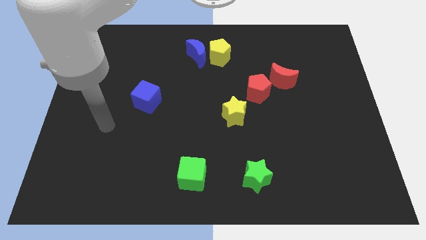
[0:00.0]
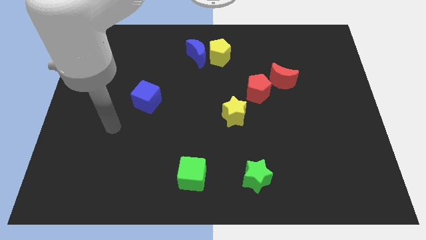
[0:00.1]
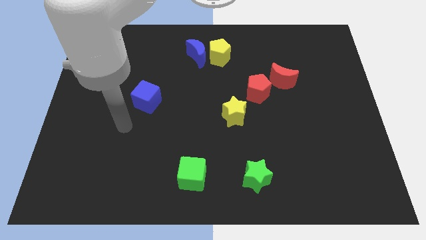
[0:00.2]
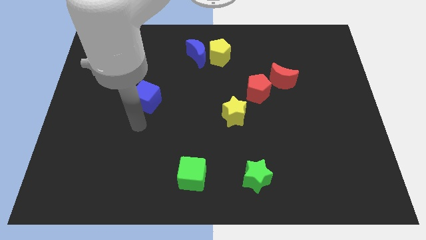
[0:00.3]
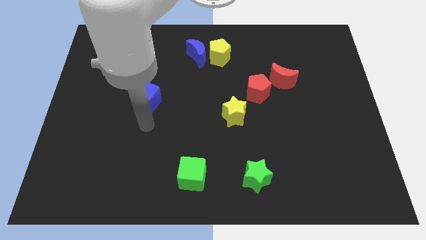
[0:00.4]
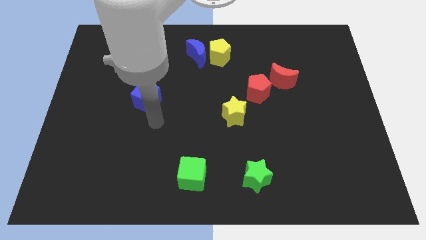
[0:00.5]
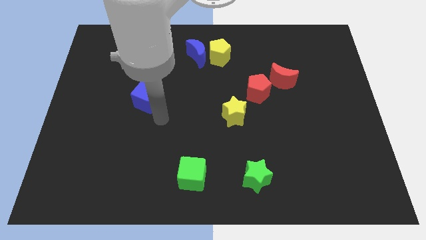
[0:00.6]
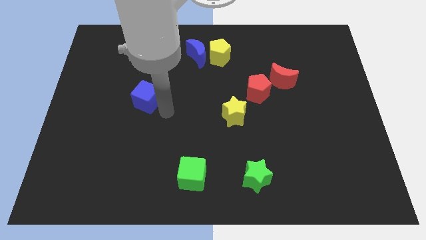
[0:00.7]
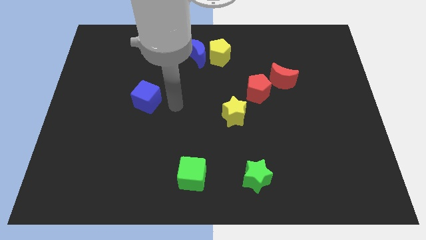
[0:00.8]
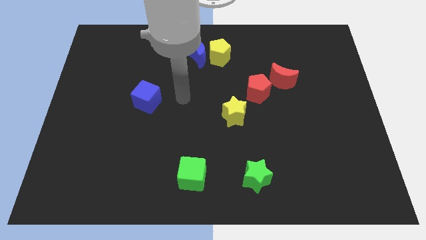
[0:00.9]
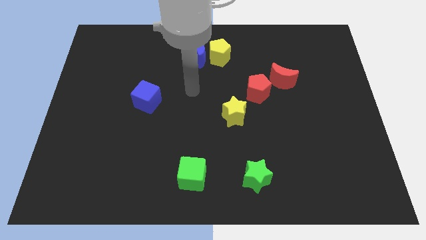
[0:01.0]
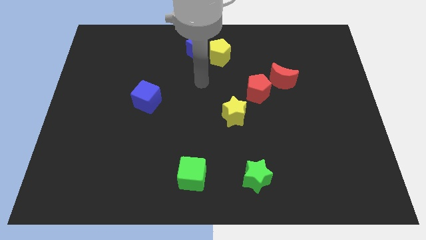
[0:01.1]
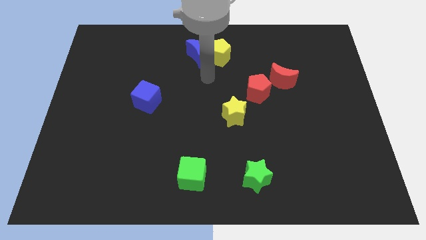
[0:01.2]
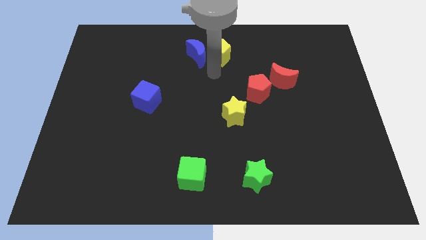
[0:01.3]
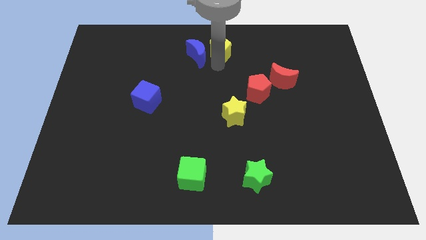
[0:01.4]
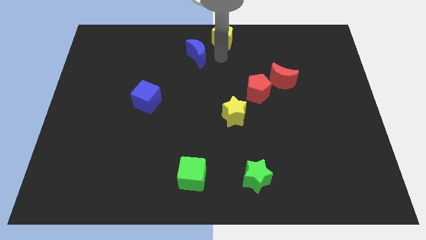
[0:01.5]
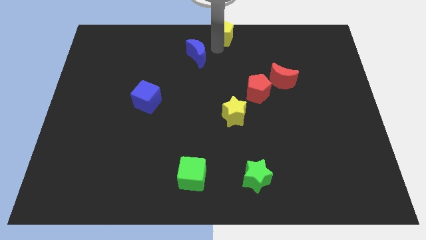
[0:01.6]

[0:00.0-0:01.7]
move the blue moon away from the yellow pentagon

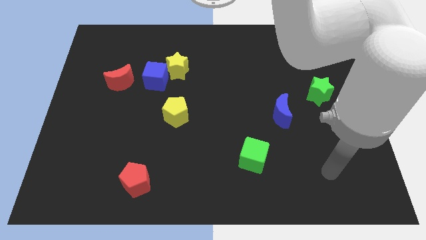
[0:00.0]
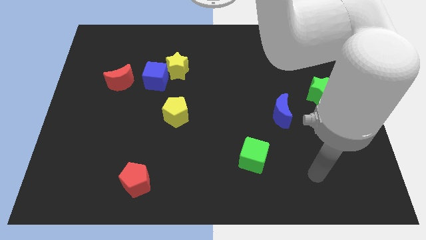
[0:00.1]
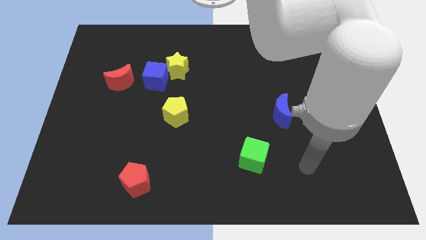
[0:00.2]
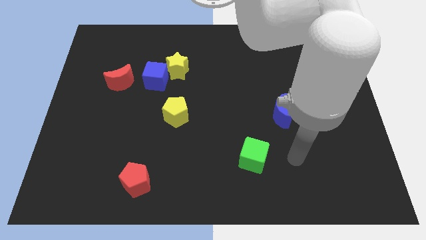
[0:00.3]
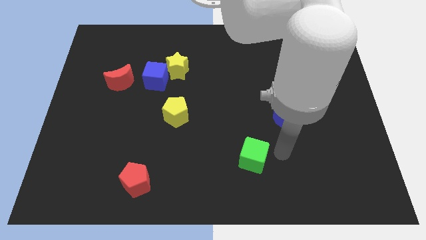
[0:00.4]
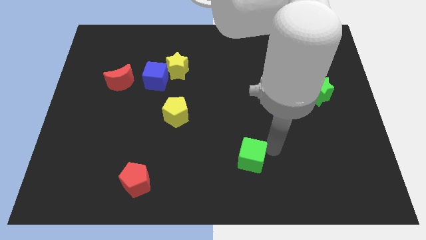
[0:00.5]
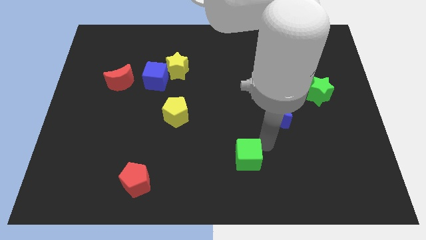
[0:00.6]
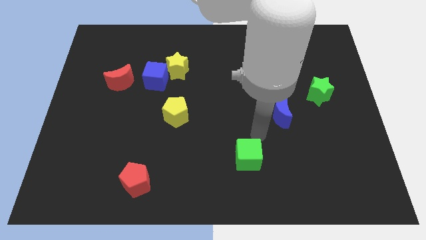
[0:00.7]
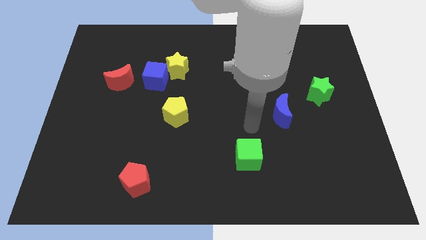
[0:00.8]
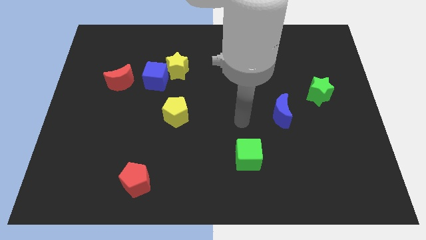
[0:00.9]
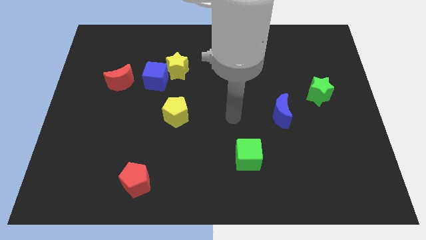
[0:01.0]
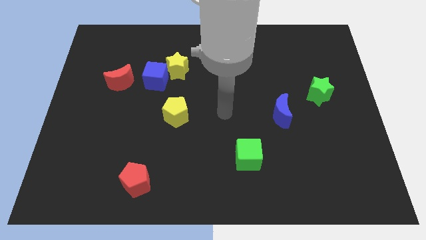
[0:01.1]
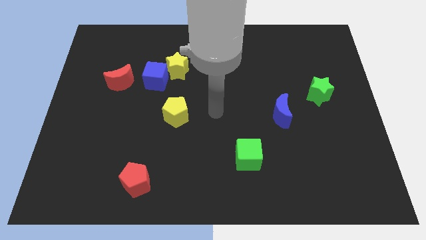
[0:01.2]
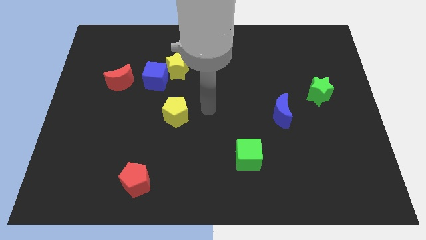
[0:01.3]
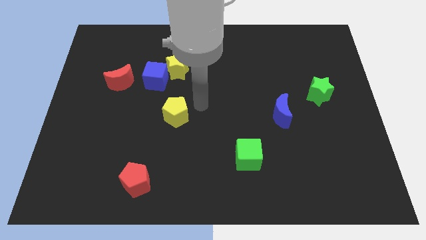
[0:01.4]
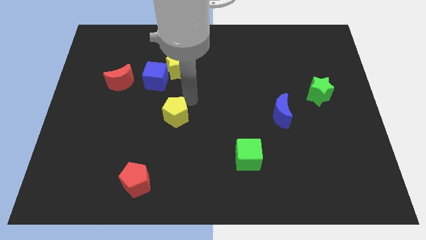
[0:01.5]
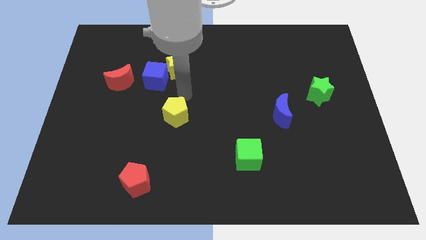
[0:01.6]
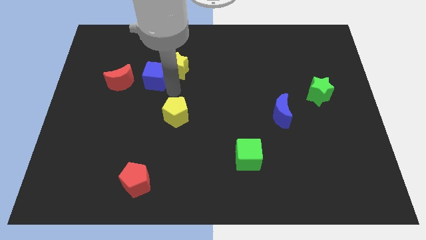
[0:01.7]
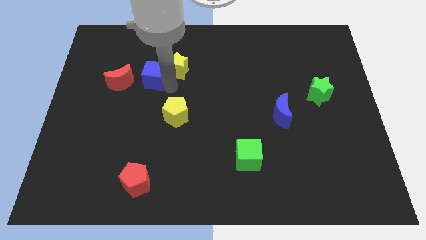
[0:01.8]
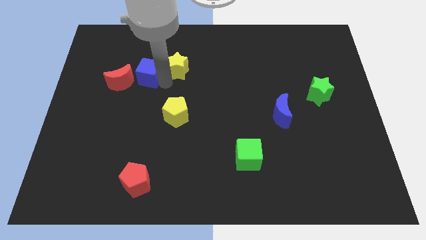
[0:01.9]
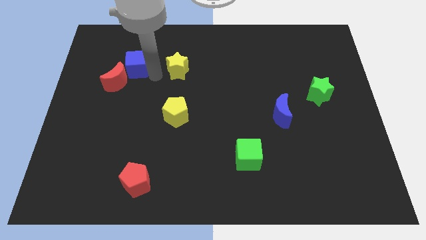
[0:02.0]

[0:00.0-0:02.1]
pull the yellow star apart from the blue cube

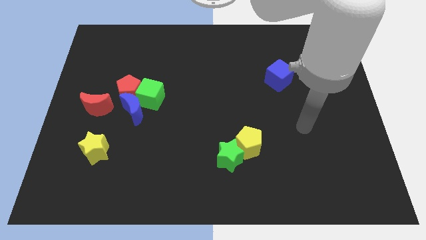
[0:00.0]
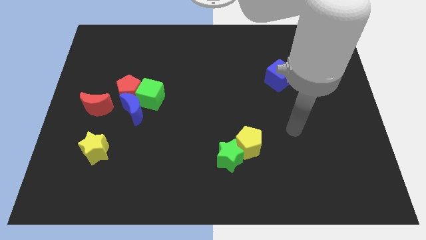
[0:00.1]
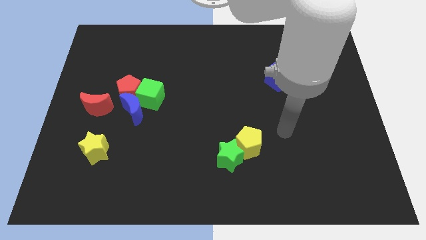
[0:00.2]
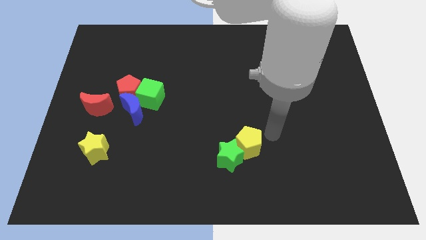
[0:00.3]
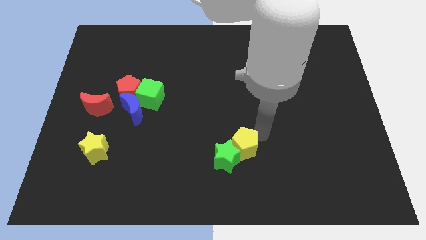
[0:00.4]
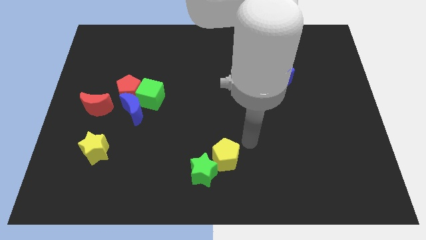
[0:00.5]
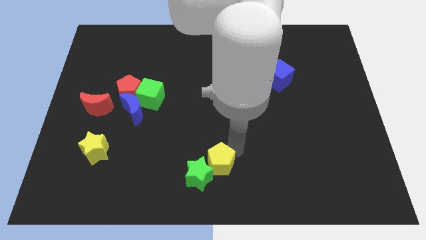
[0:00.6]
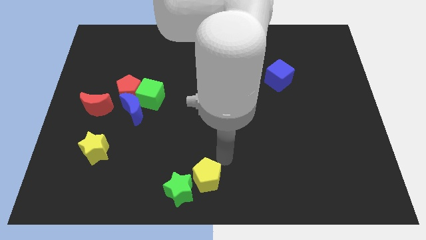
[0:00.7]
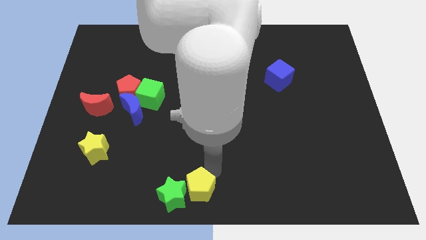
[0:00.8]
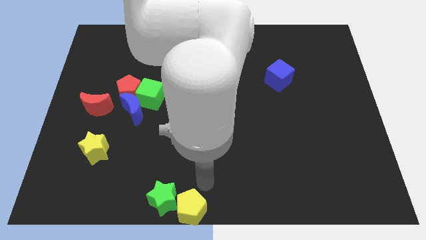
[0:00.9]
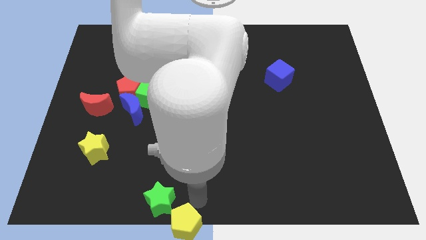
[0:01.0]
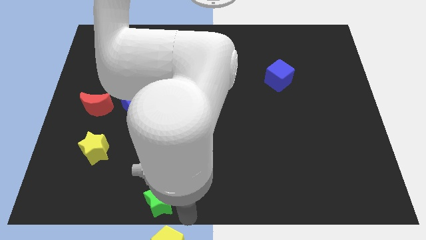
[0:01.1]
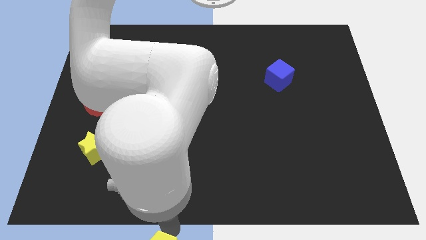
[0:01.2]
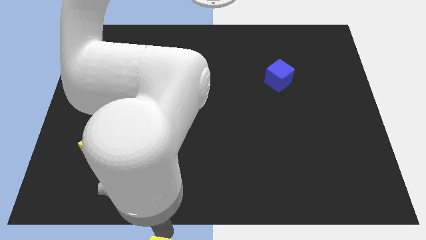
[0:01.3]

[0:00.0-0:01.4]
separate the green star from the yellow pentagon

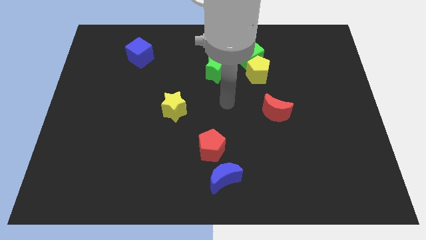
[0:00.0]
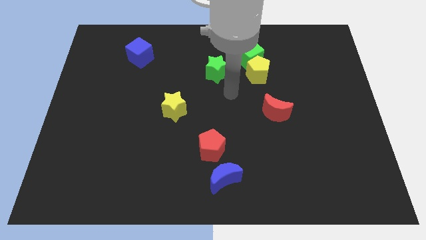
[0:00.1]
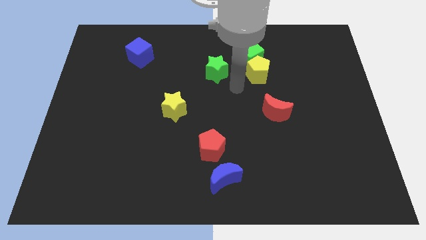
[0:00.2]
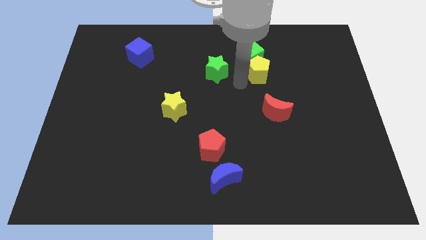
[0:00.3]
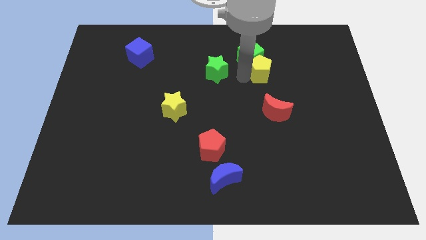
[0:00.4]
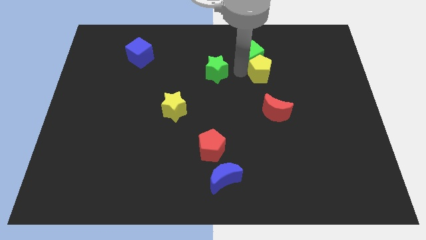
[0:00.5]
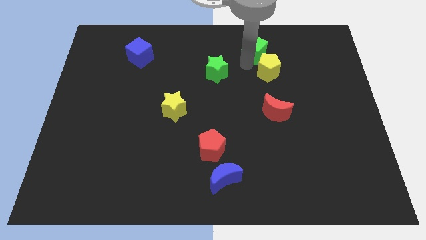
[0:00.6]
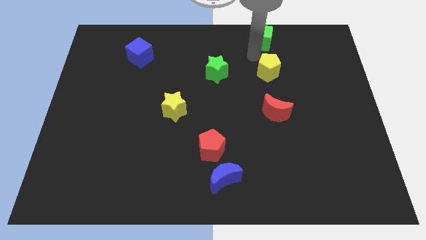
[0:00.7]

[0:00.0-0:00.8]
pull the yellow pentagon apart from the green cube

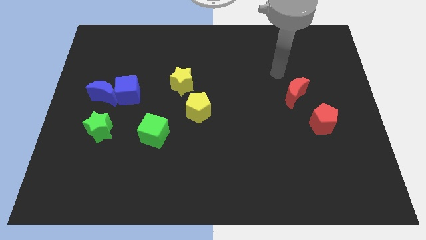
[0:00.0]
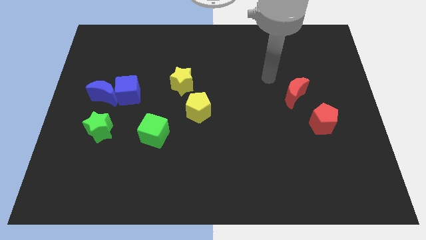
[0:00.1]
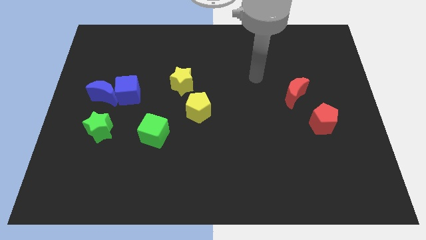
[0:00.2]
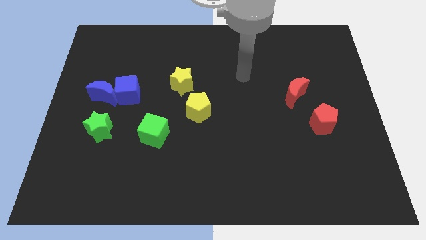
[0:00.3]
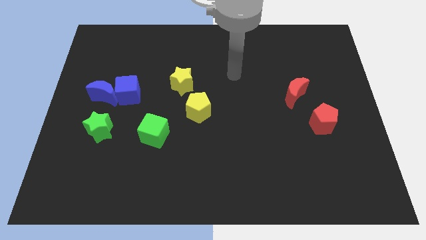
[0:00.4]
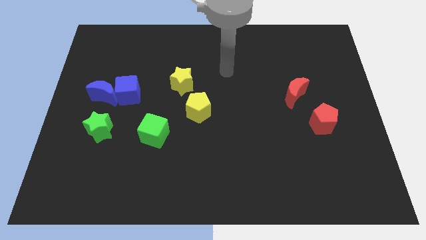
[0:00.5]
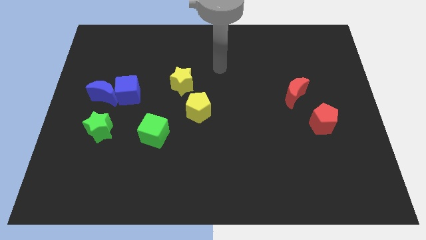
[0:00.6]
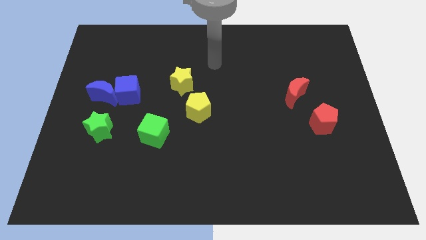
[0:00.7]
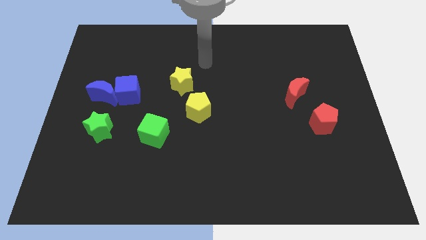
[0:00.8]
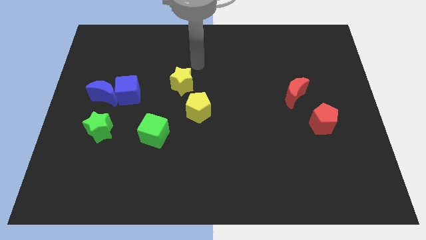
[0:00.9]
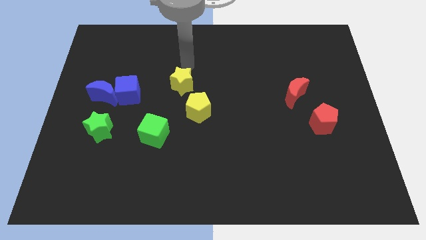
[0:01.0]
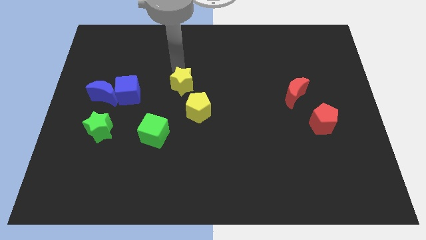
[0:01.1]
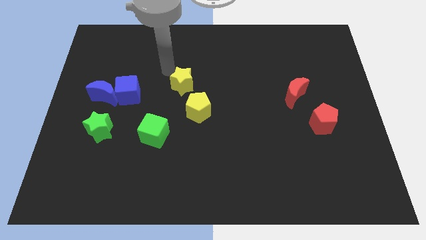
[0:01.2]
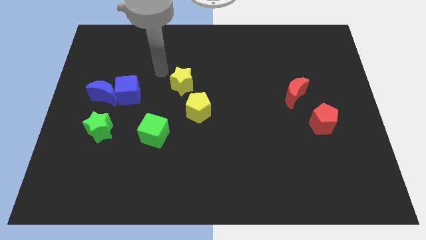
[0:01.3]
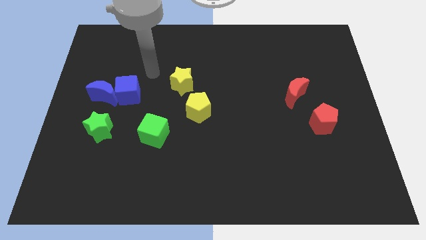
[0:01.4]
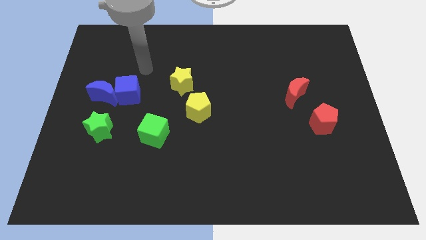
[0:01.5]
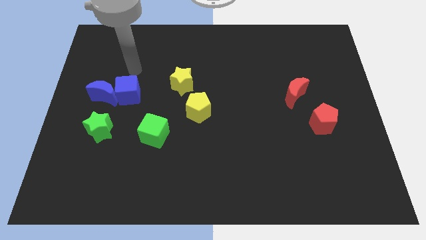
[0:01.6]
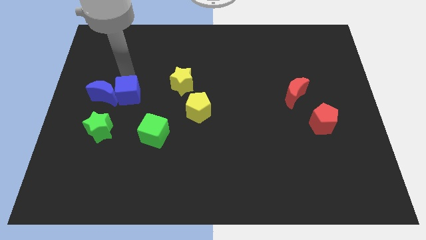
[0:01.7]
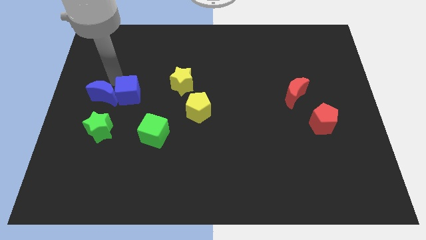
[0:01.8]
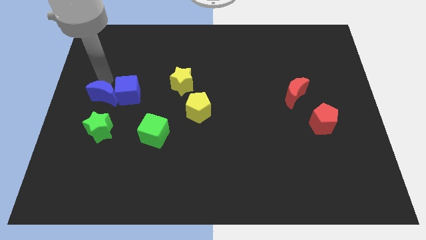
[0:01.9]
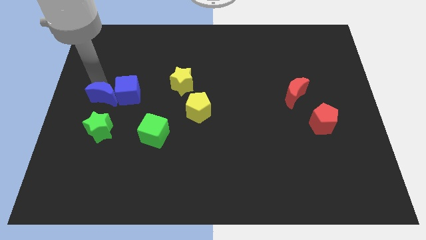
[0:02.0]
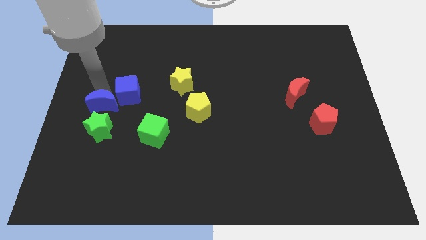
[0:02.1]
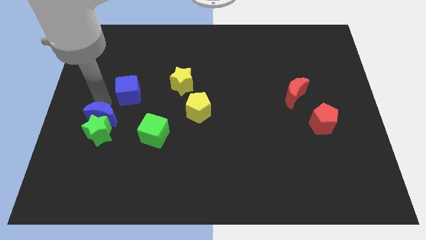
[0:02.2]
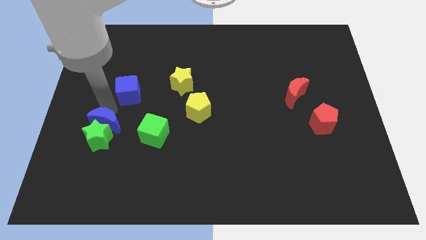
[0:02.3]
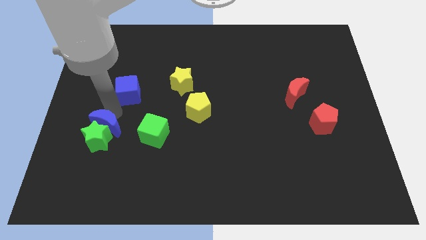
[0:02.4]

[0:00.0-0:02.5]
separate the blue cube from the blue moon

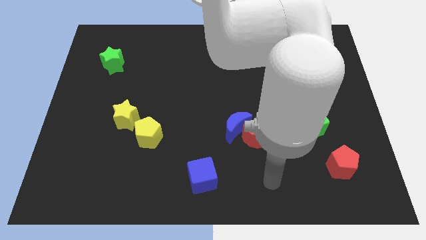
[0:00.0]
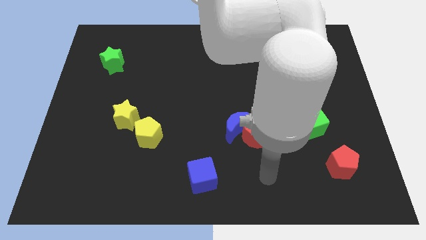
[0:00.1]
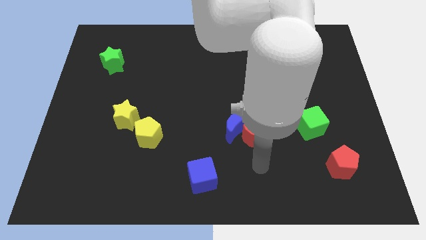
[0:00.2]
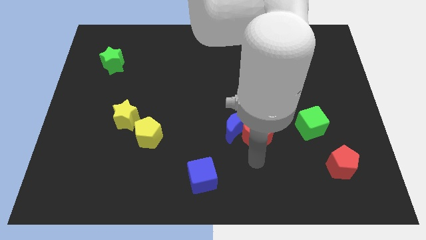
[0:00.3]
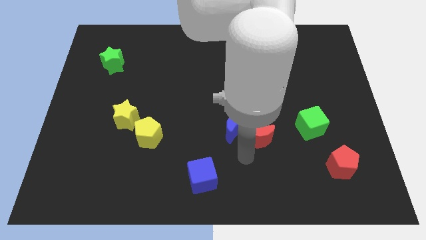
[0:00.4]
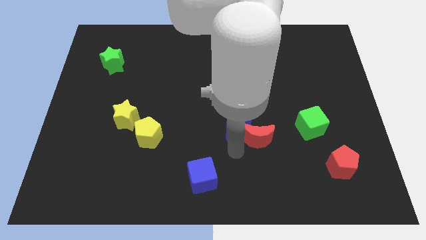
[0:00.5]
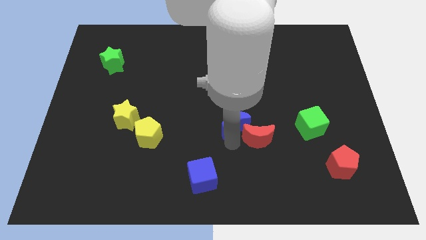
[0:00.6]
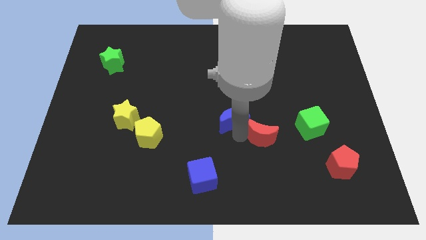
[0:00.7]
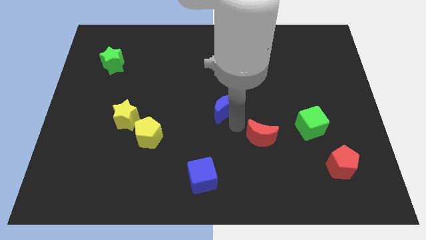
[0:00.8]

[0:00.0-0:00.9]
move the red moon away from the blue moon
